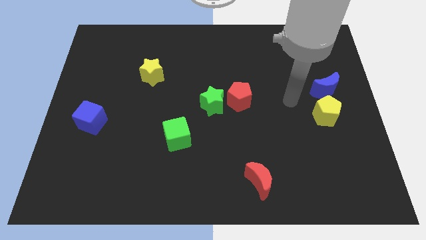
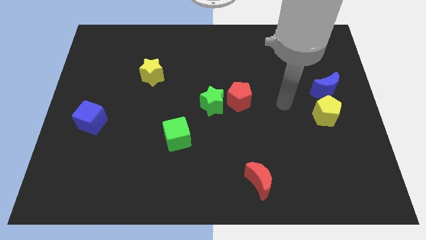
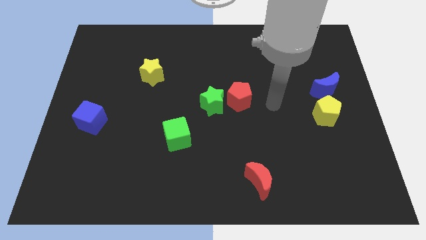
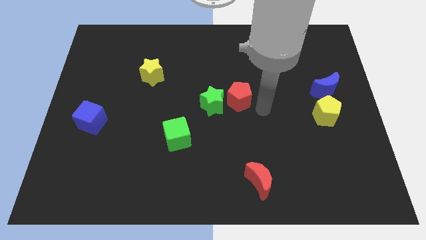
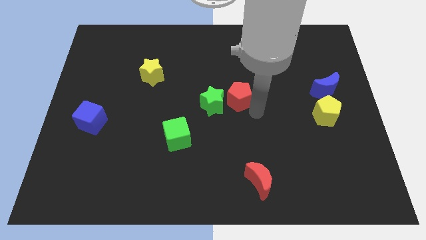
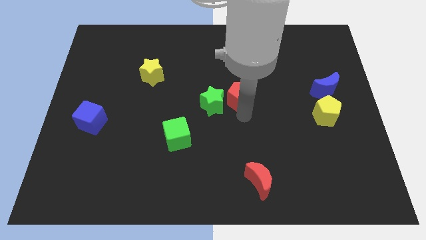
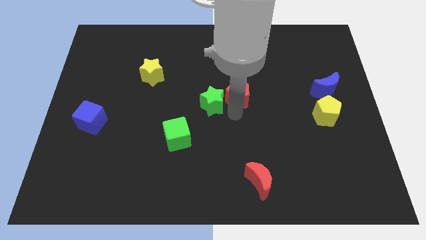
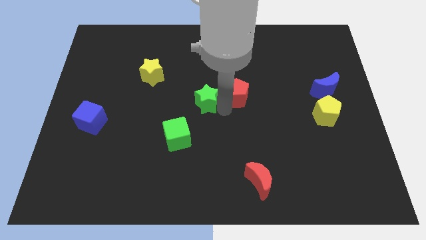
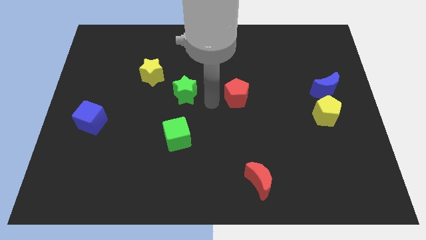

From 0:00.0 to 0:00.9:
pull the red pentagon apart from the green star

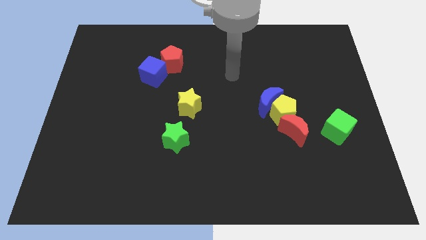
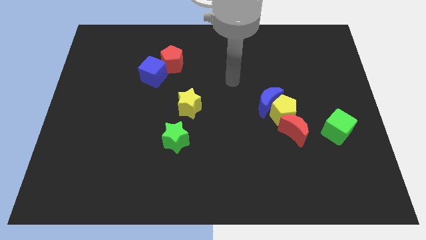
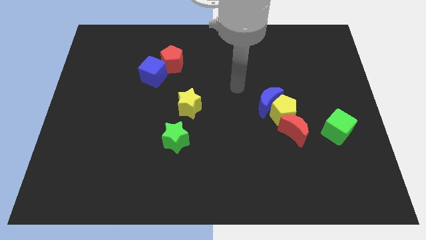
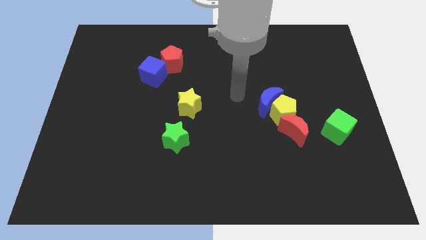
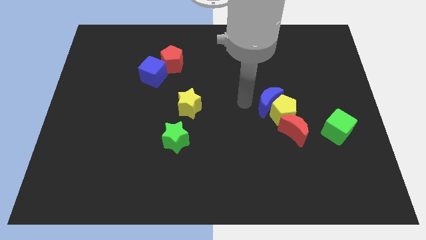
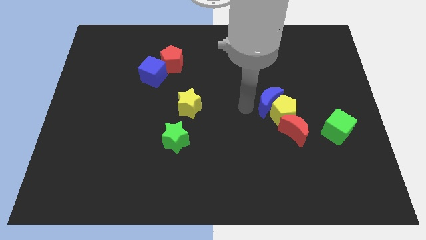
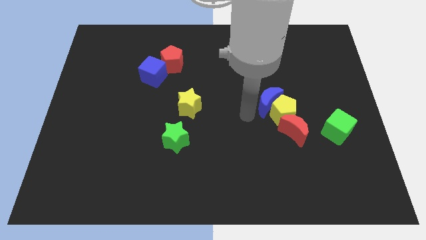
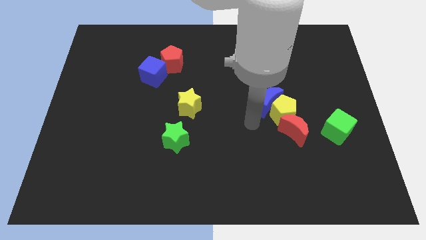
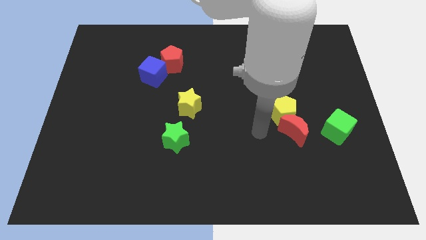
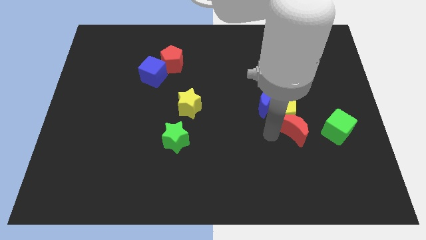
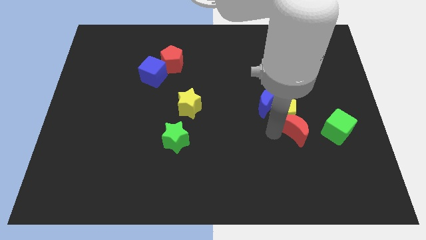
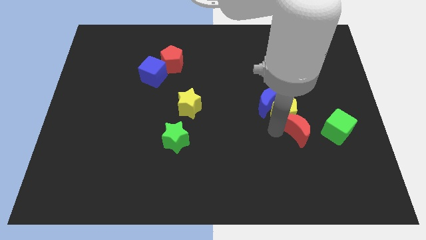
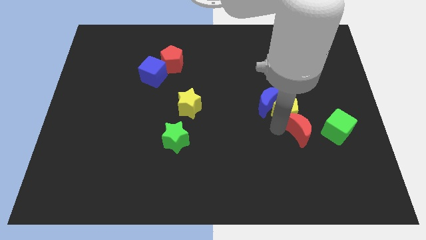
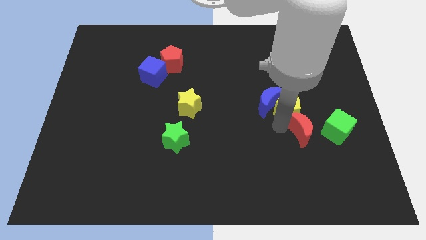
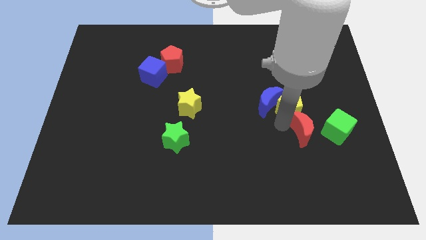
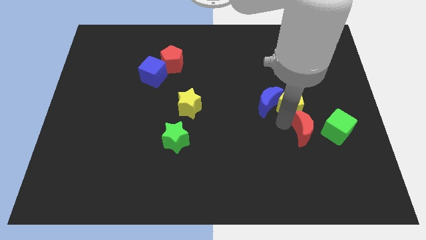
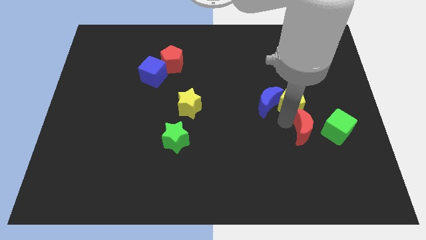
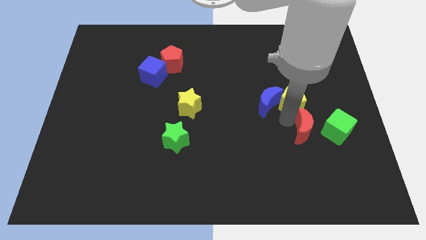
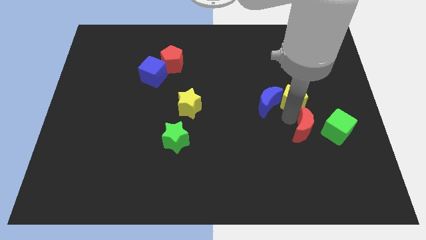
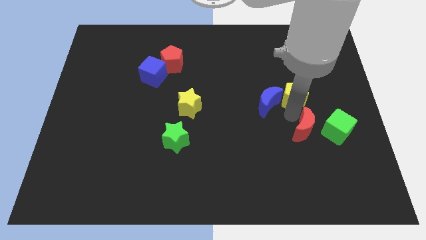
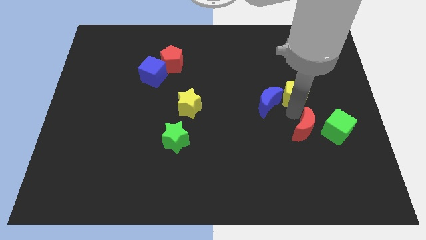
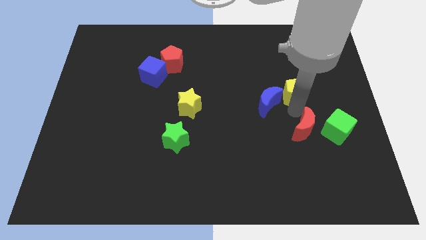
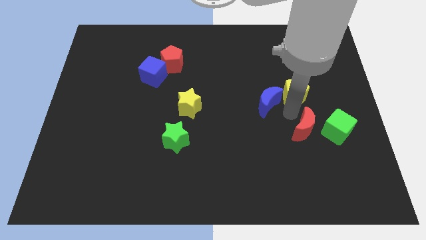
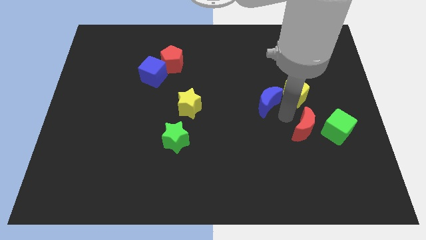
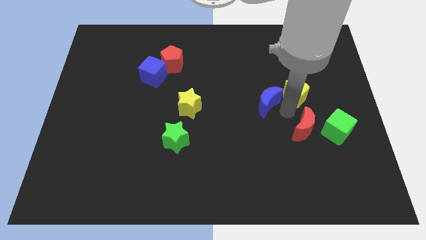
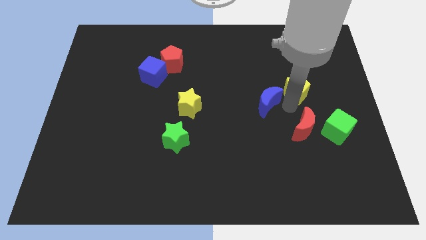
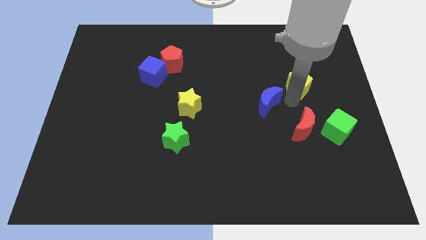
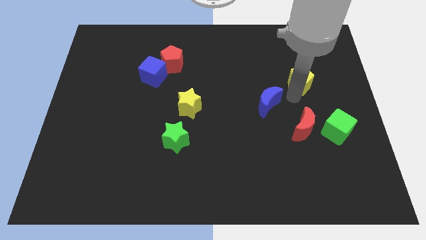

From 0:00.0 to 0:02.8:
move the yellow pentagon away from the blue moon and red moon

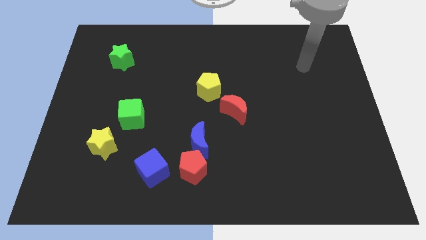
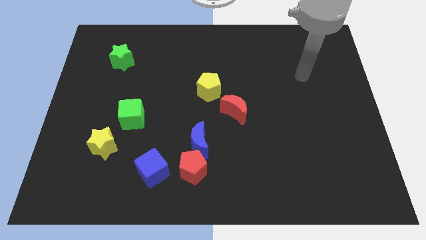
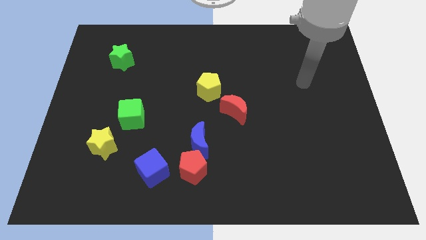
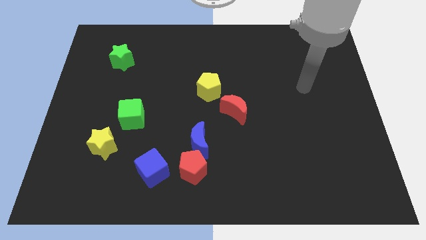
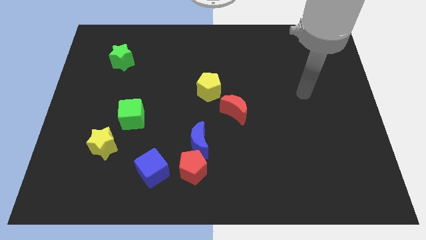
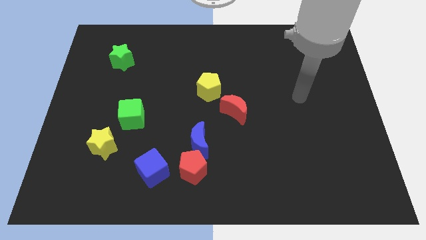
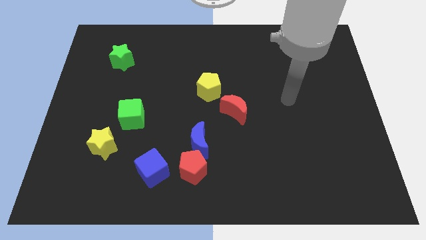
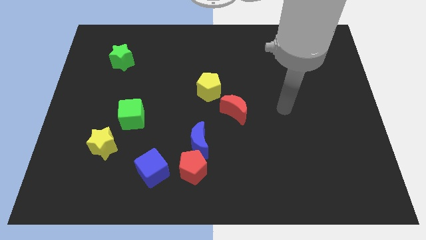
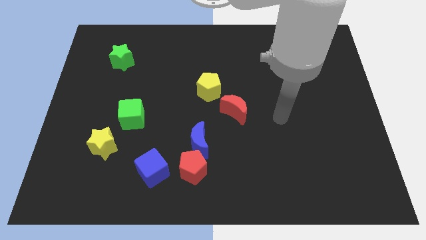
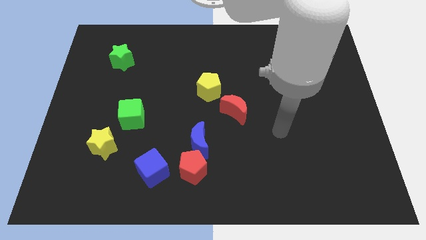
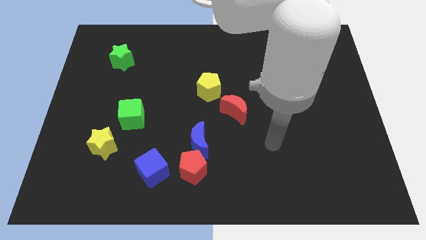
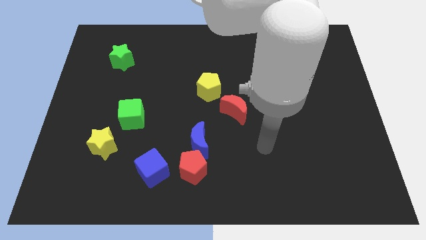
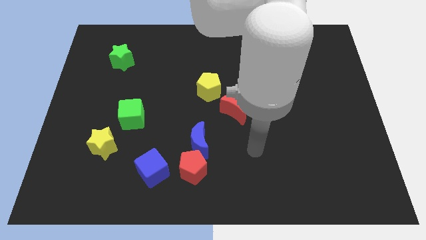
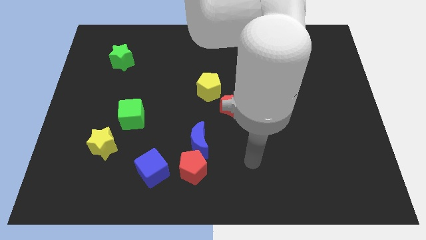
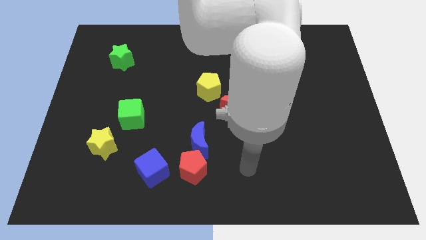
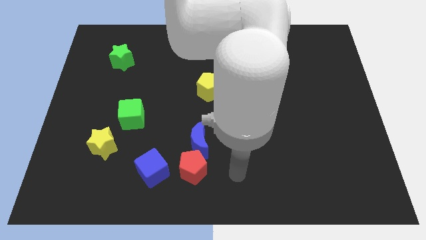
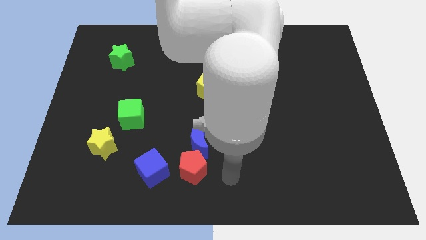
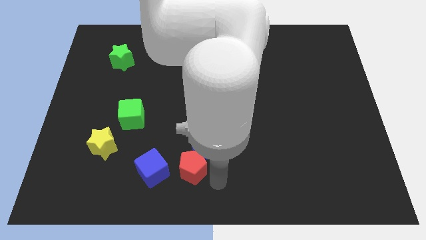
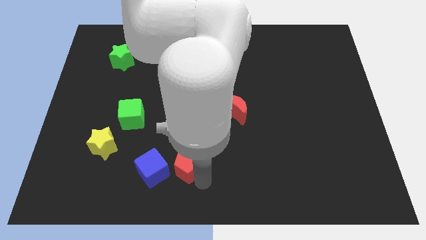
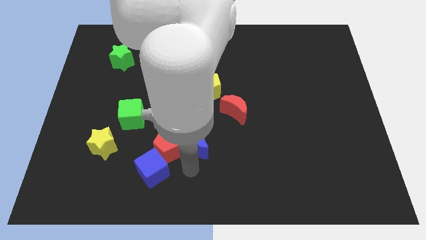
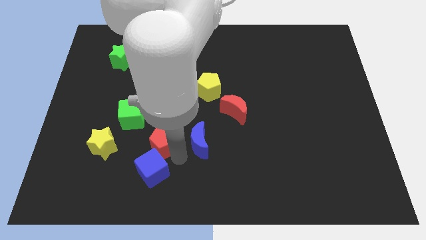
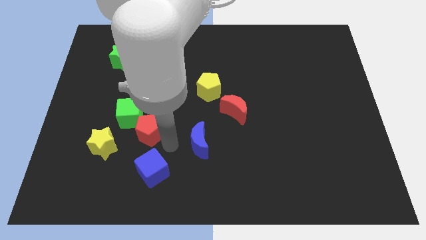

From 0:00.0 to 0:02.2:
pull the blue moon apart from the red pentagon

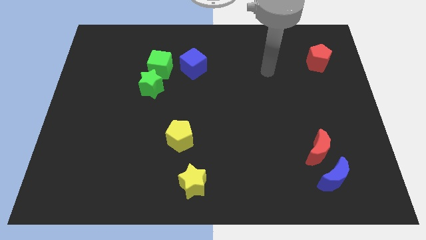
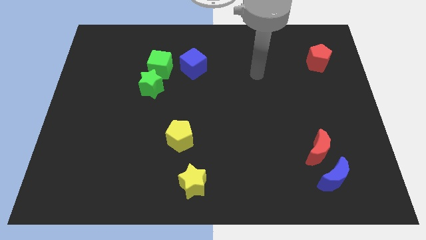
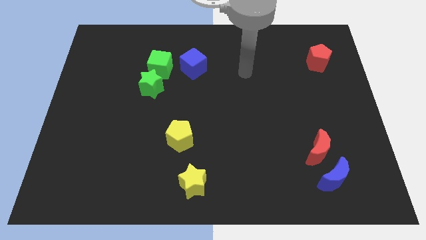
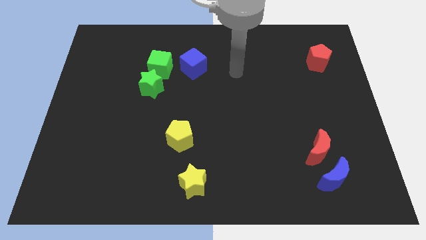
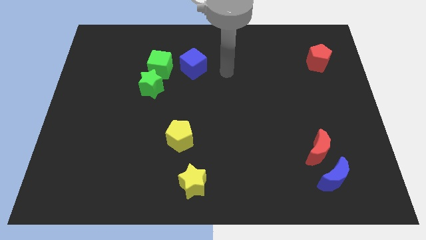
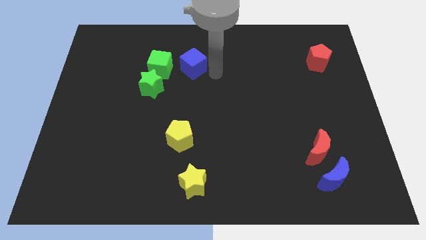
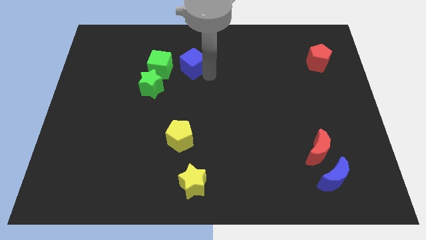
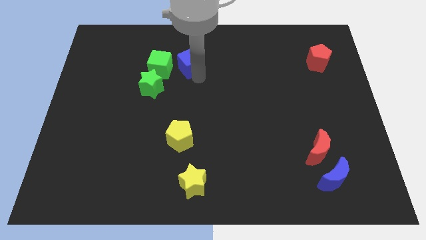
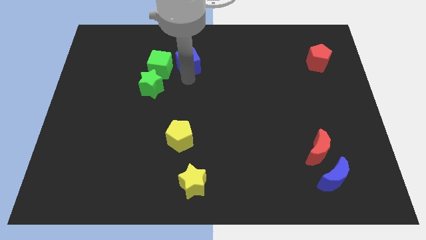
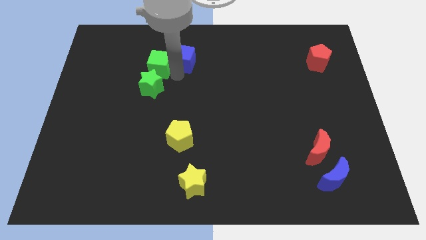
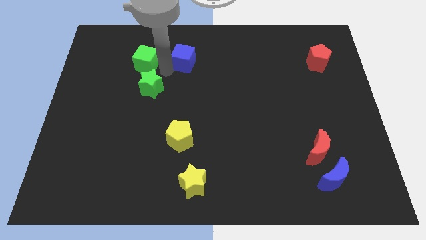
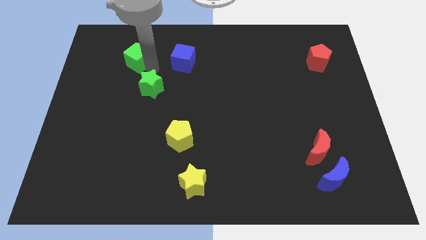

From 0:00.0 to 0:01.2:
separate the green star from the green cube

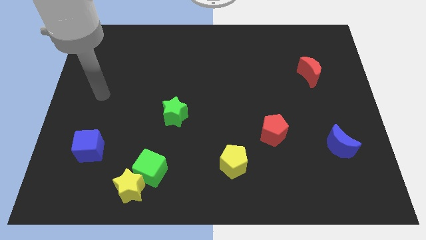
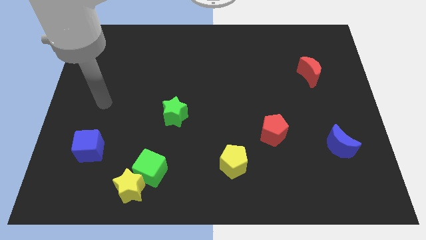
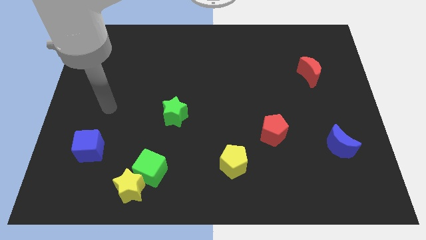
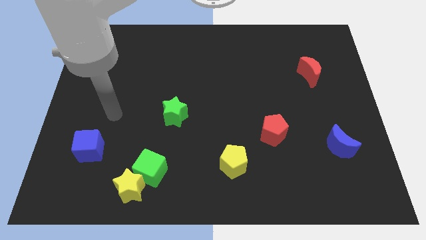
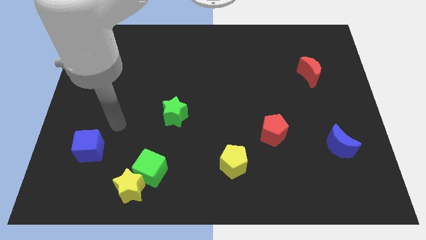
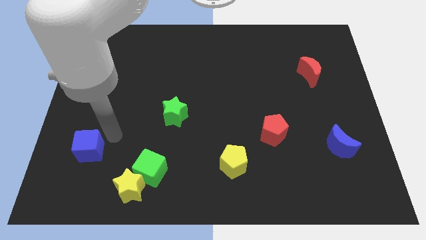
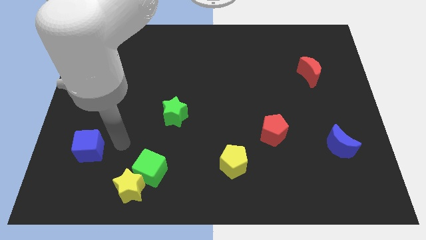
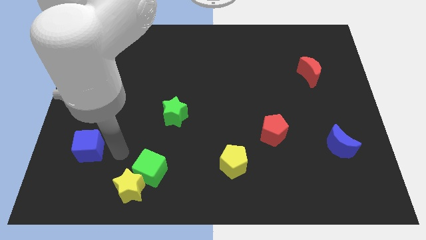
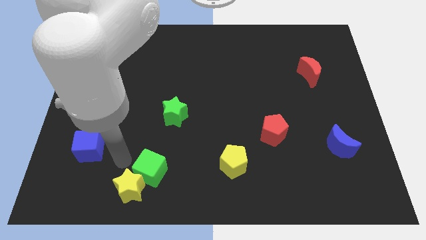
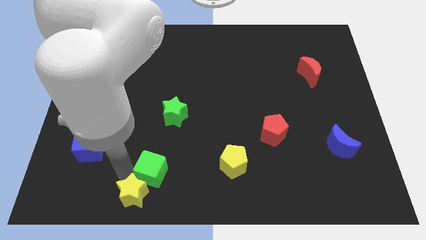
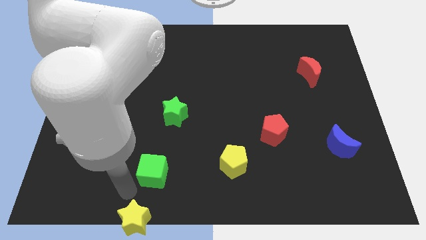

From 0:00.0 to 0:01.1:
move the green cube away from the yellow star

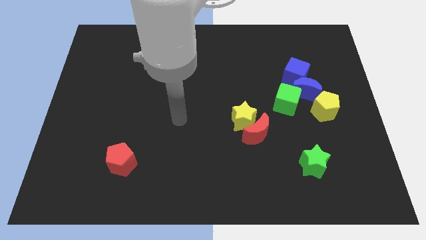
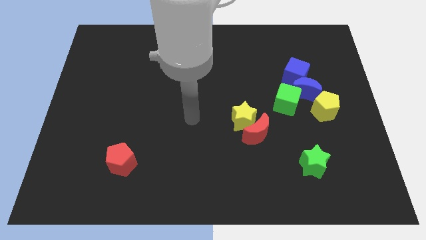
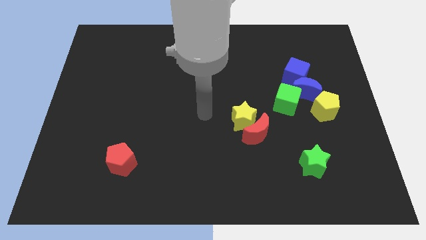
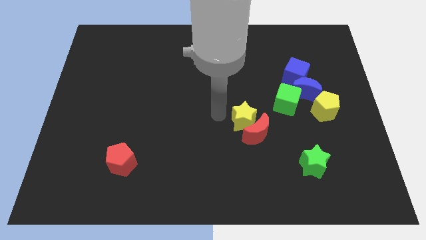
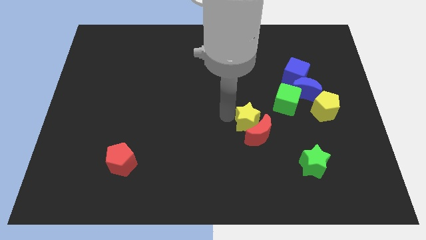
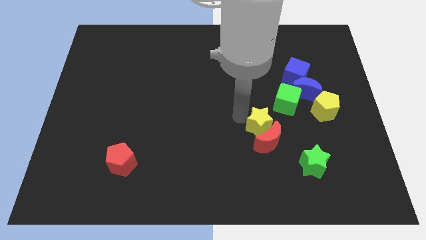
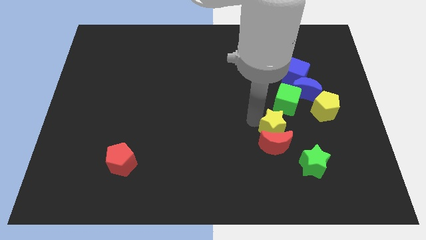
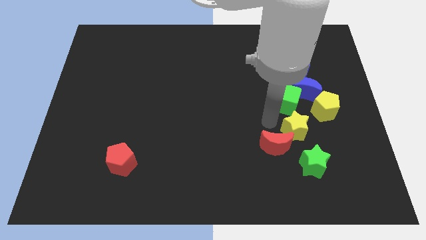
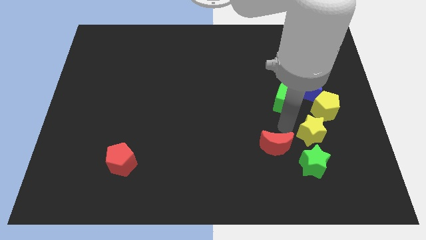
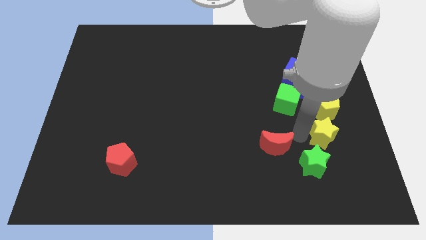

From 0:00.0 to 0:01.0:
pull the red moon apart from the yellow star
